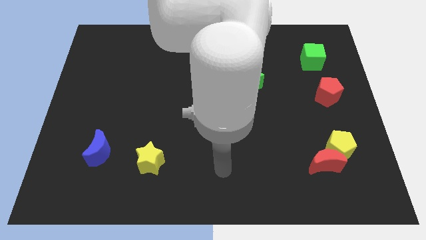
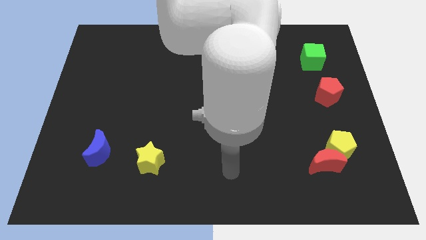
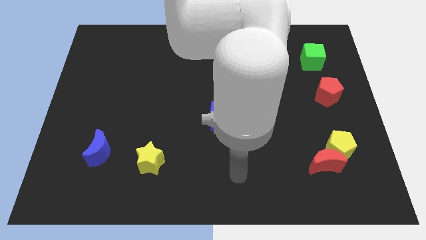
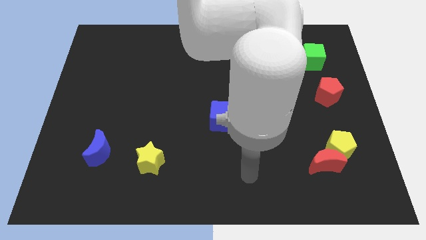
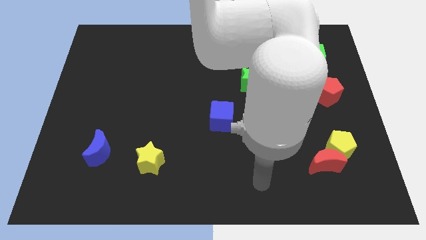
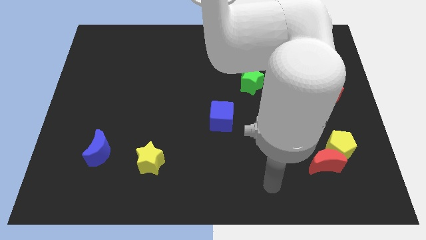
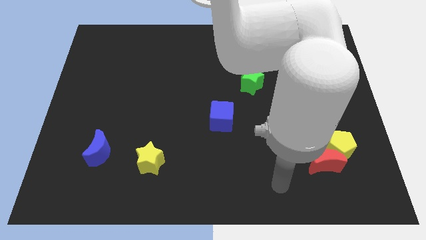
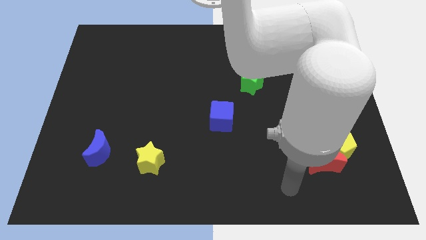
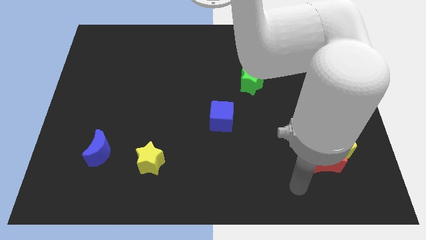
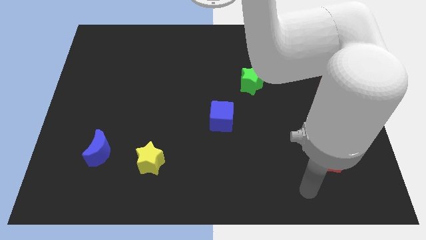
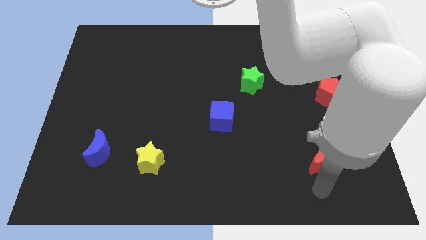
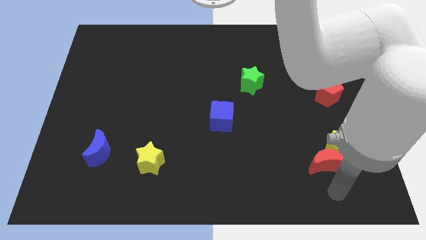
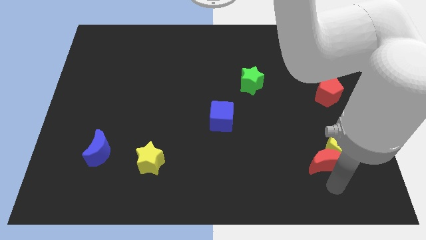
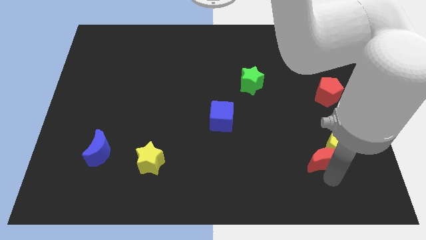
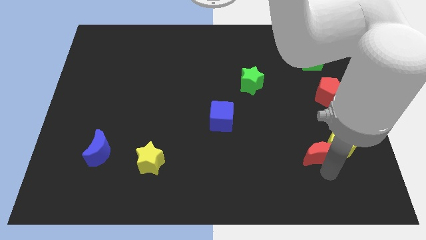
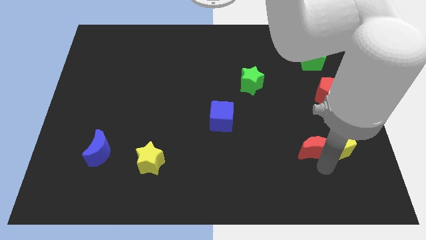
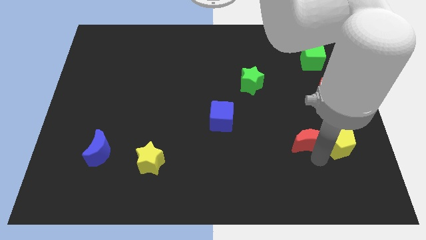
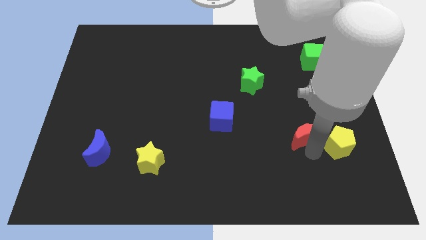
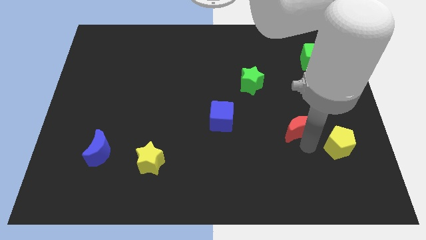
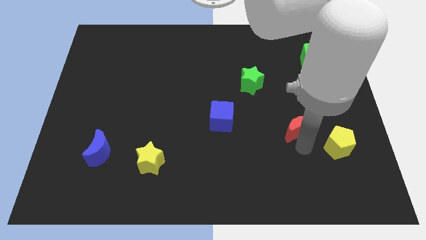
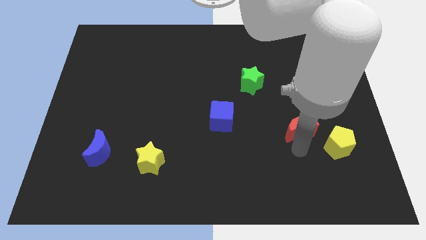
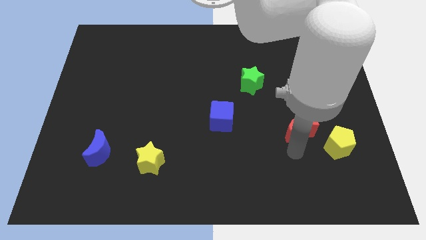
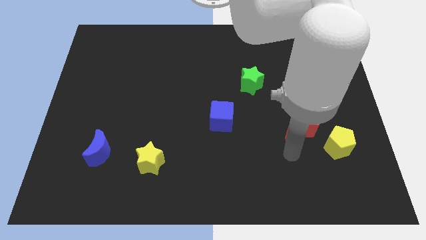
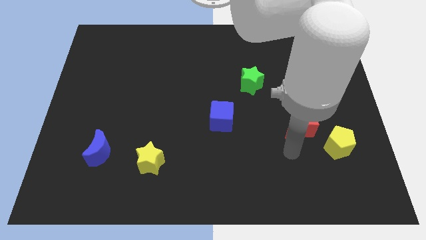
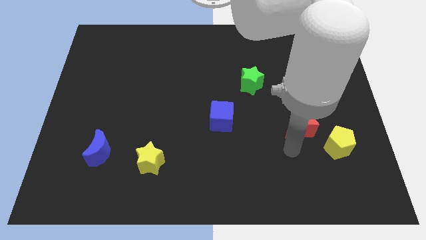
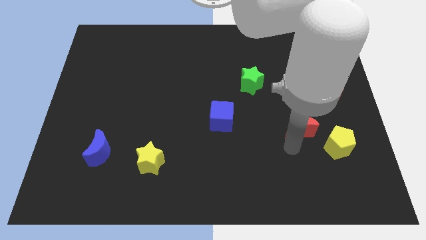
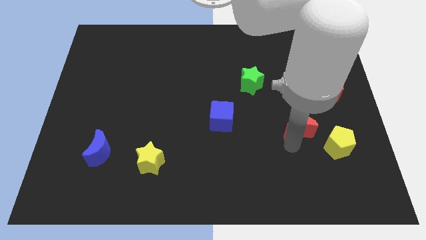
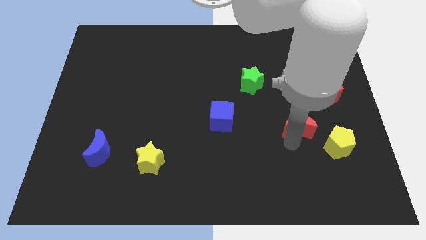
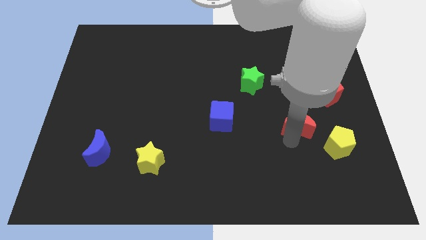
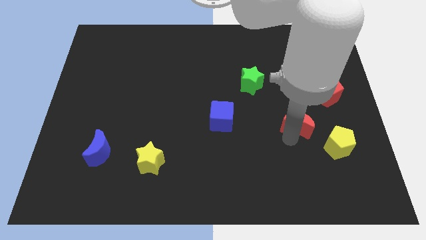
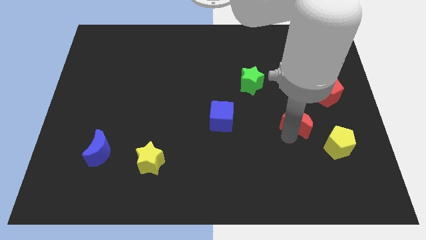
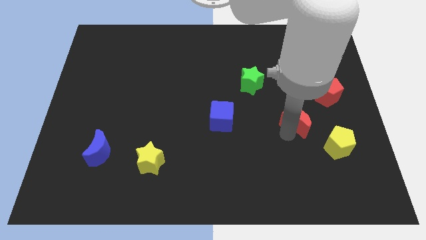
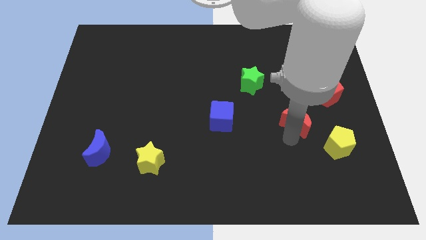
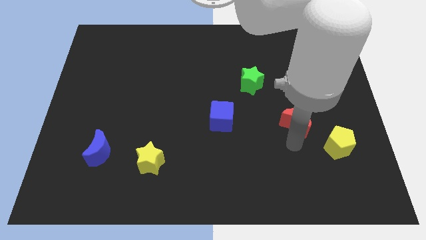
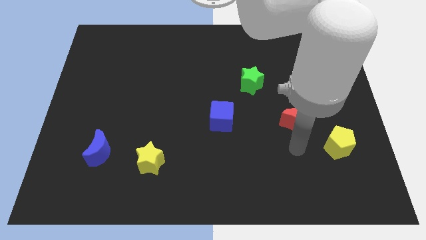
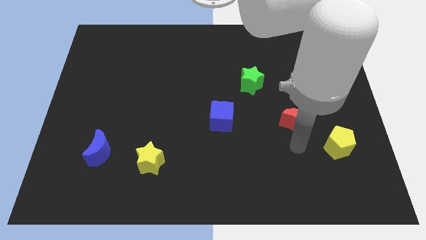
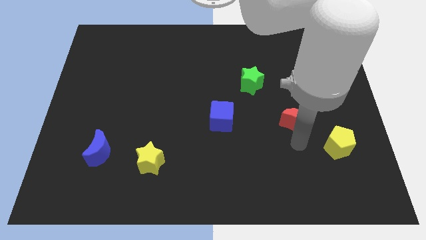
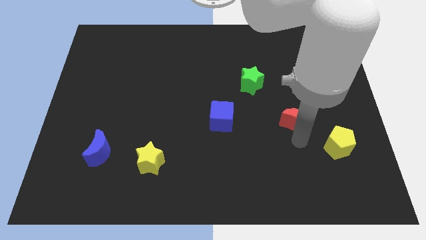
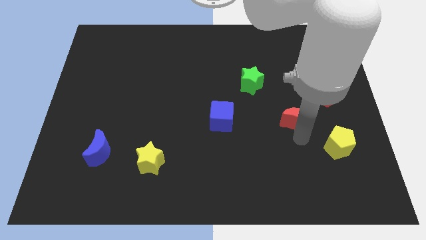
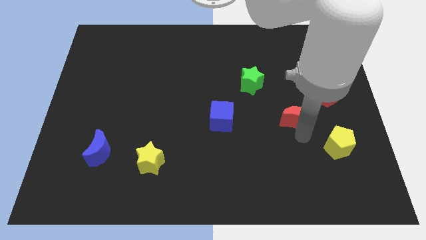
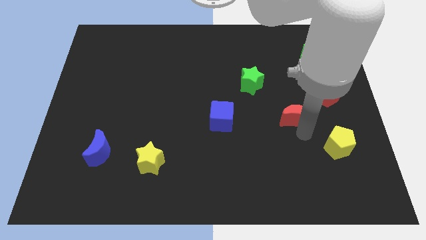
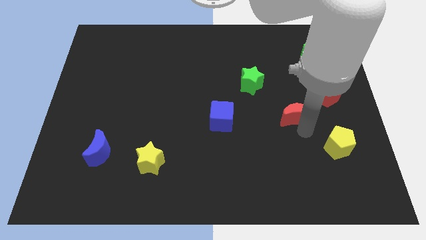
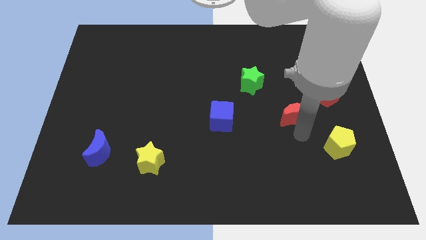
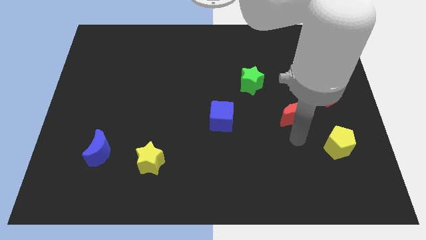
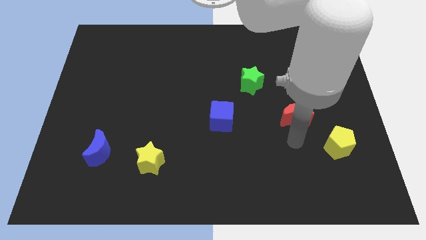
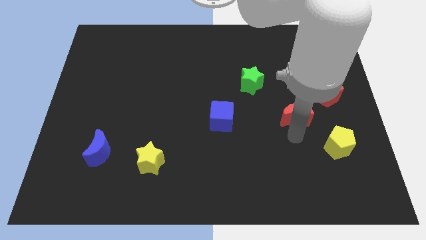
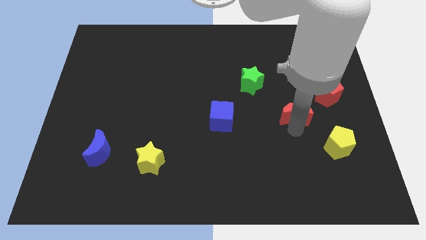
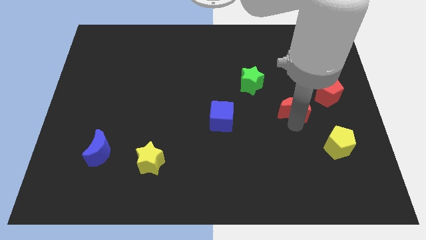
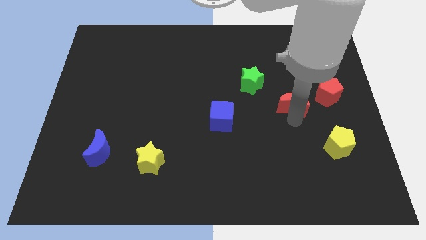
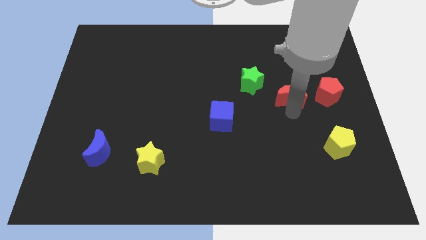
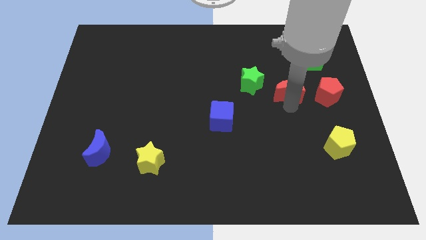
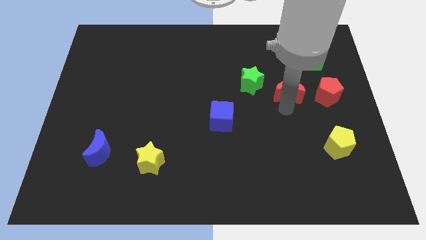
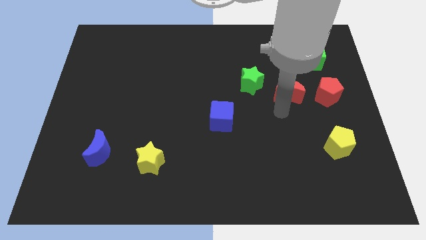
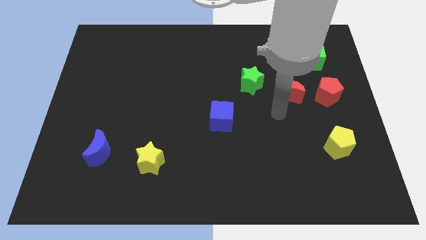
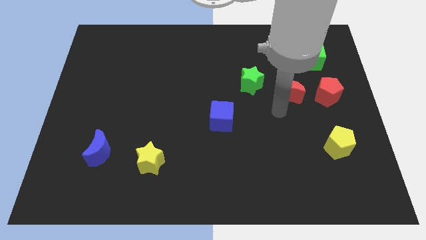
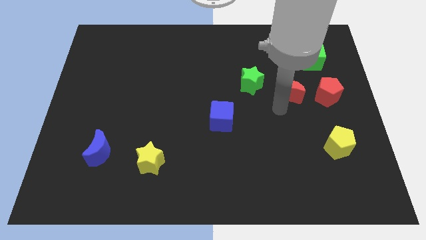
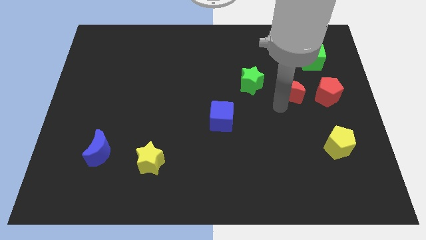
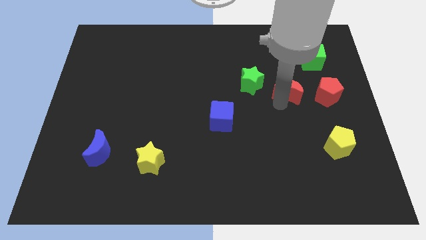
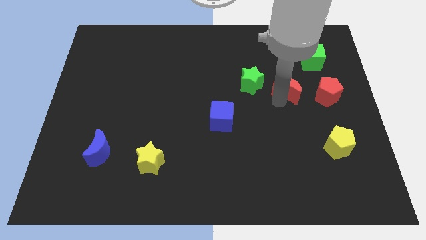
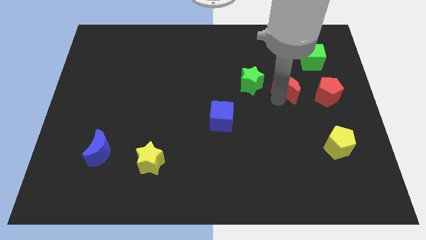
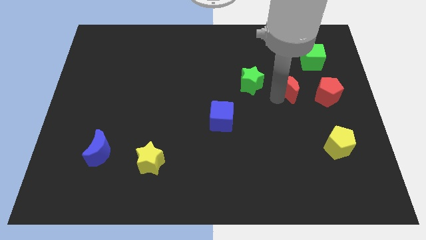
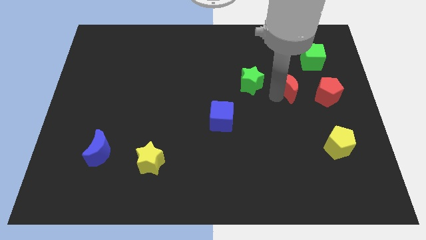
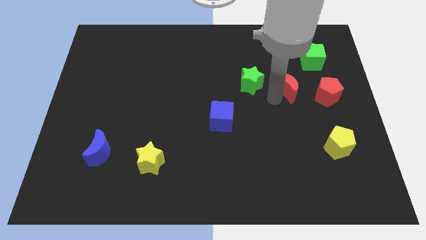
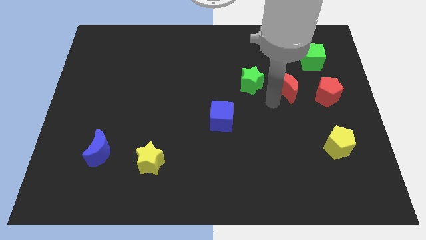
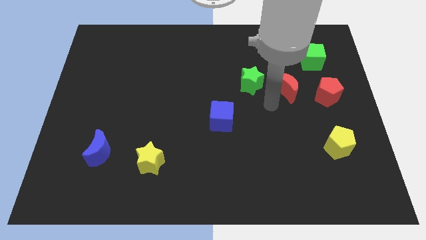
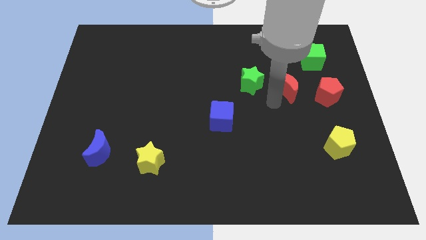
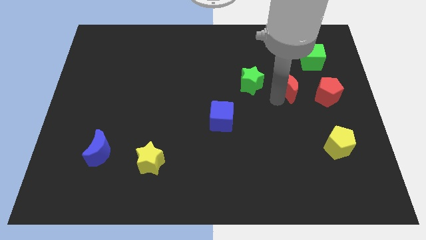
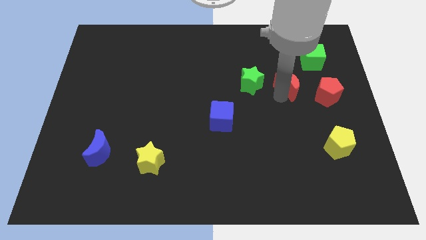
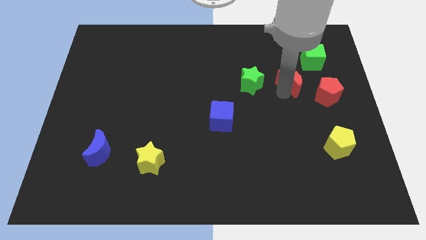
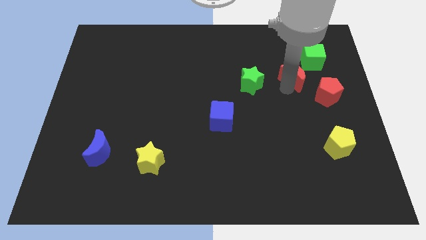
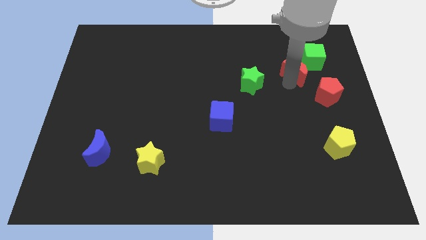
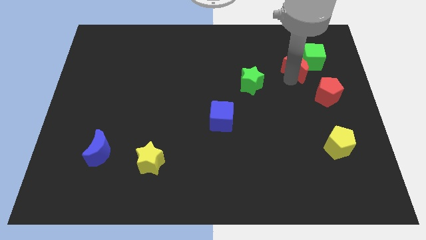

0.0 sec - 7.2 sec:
put the red moon close to the green cube
